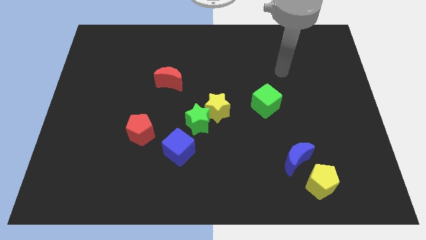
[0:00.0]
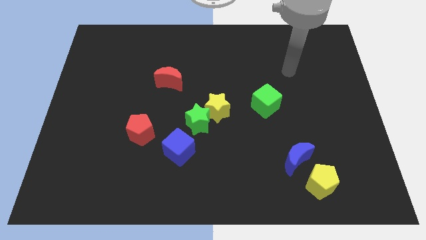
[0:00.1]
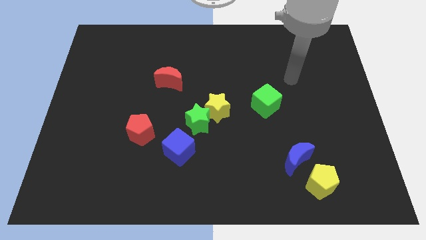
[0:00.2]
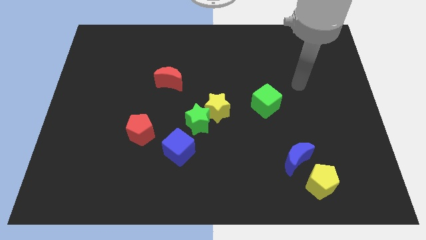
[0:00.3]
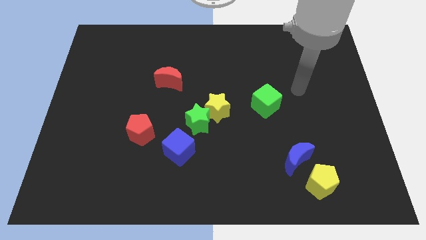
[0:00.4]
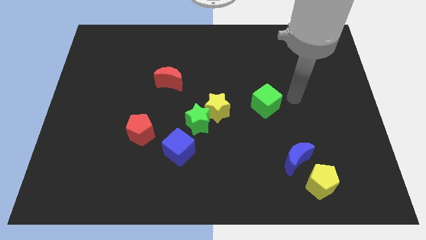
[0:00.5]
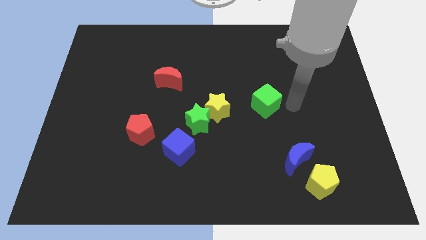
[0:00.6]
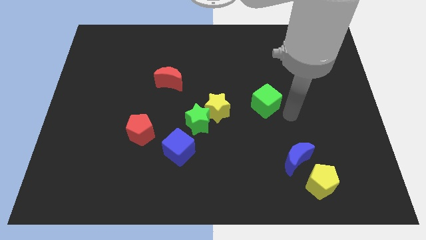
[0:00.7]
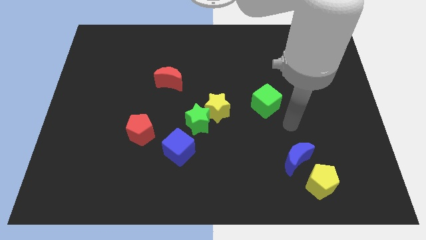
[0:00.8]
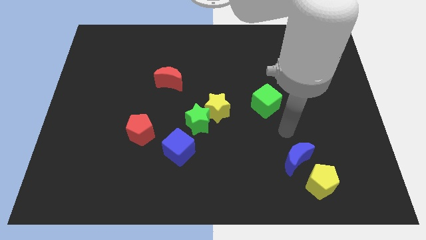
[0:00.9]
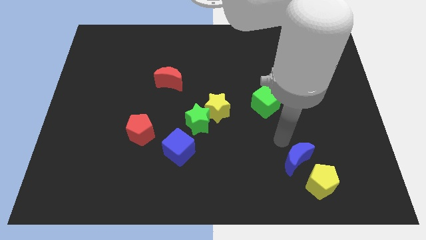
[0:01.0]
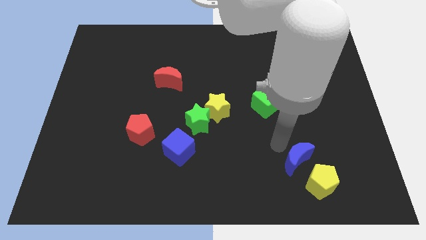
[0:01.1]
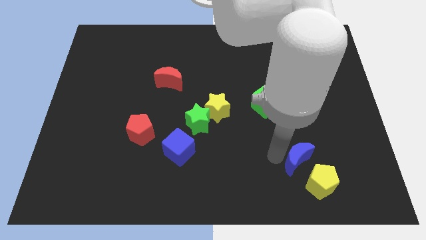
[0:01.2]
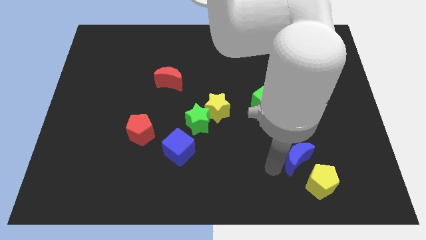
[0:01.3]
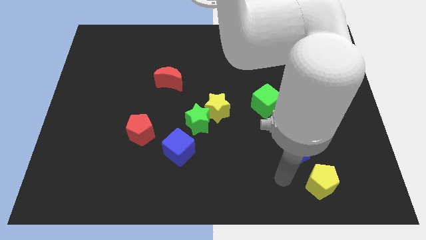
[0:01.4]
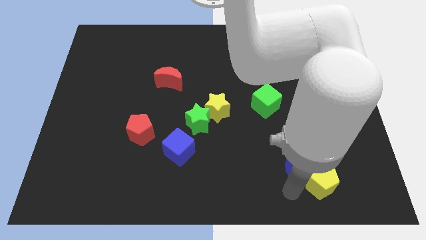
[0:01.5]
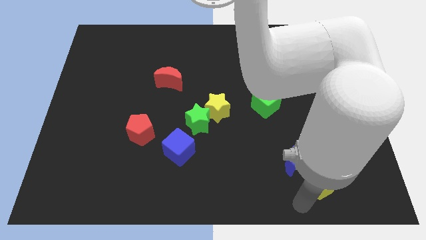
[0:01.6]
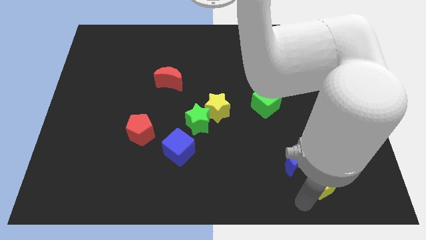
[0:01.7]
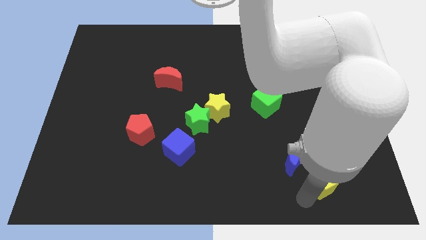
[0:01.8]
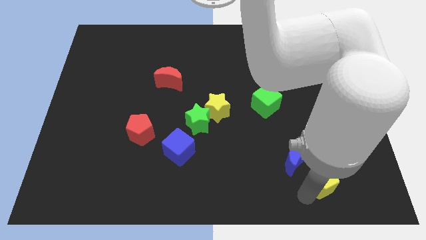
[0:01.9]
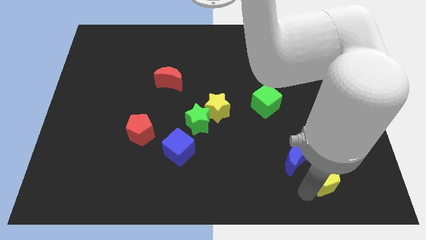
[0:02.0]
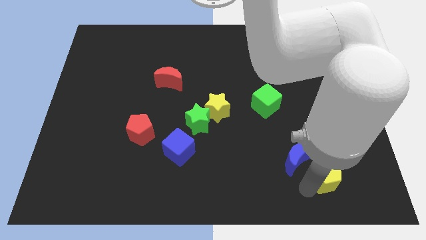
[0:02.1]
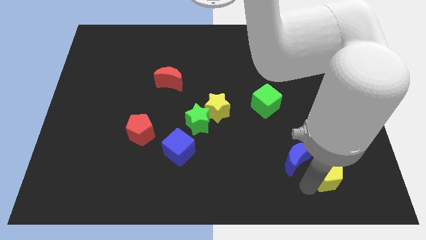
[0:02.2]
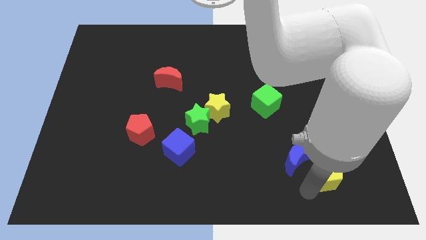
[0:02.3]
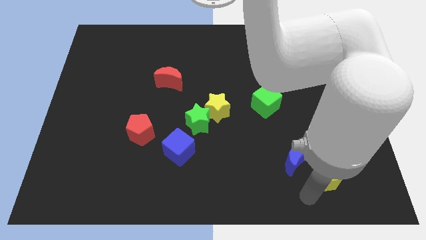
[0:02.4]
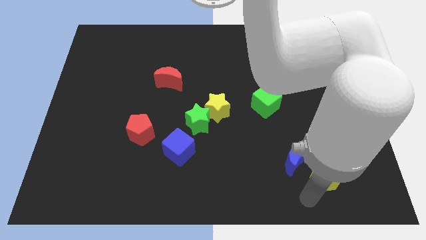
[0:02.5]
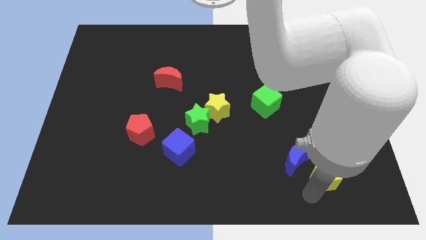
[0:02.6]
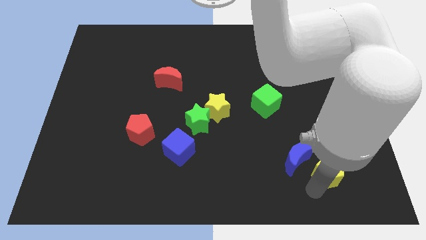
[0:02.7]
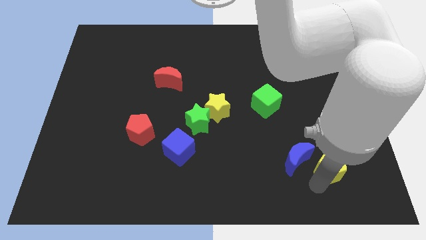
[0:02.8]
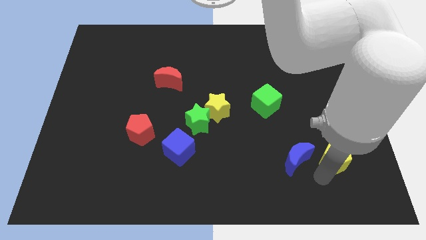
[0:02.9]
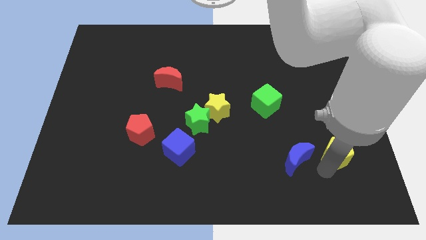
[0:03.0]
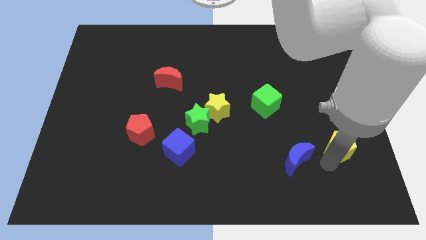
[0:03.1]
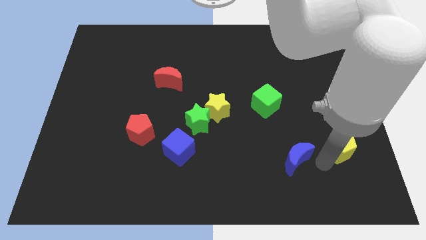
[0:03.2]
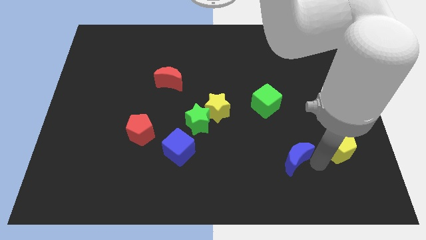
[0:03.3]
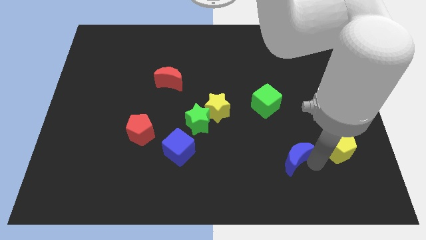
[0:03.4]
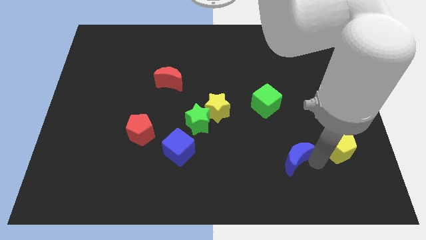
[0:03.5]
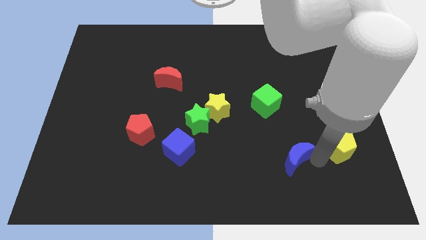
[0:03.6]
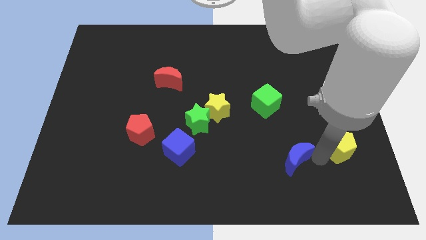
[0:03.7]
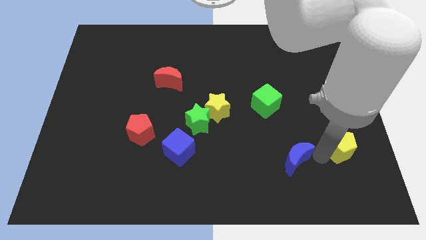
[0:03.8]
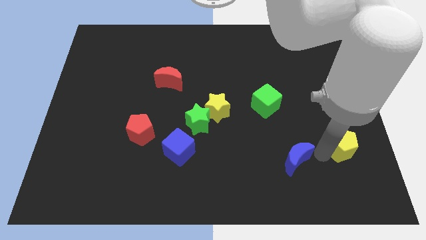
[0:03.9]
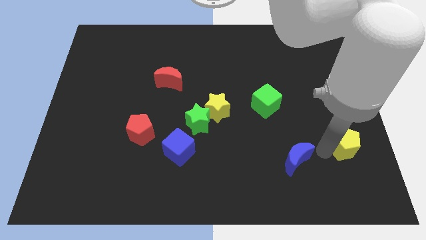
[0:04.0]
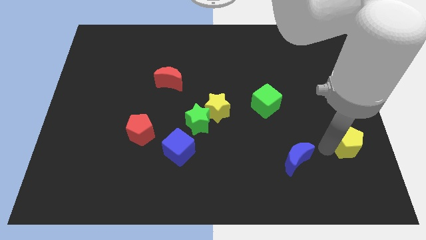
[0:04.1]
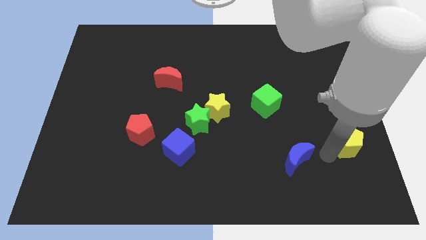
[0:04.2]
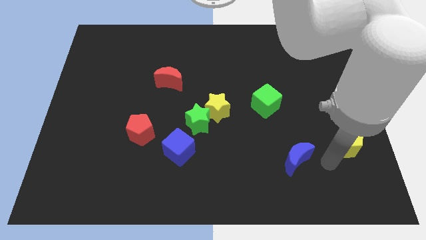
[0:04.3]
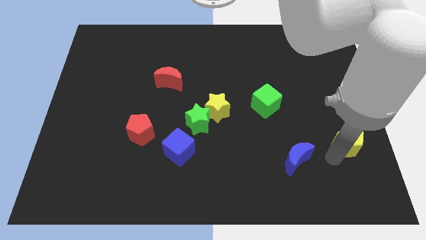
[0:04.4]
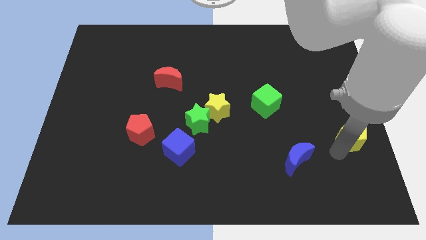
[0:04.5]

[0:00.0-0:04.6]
slide the yellow pentagon to the right side

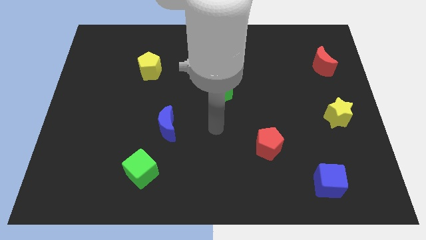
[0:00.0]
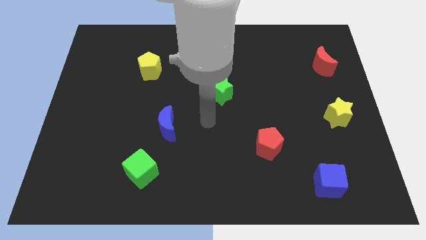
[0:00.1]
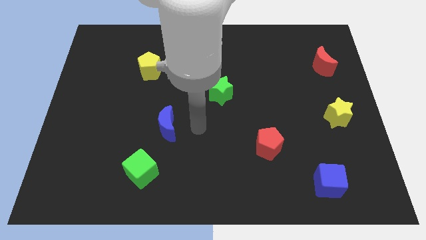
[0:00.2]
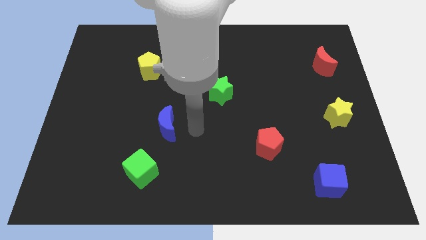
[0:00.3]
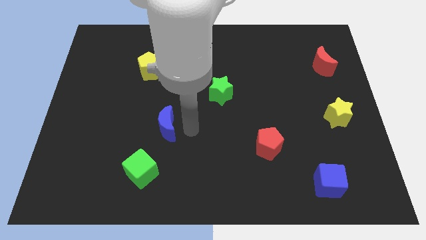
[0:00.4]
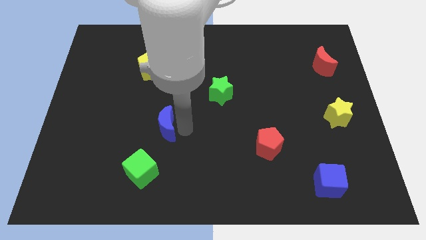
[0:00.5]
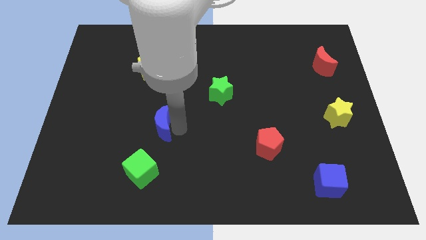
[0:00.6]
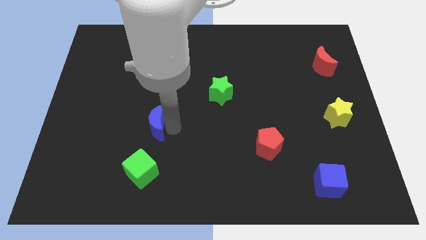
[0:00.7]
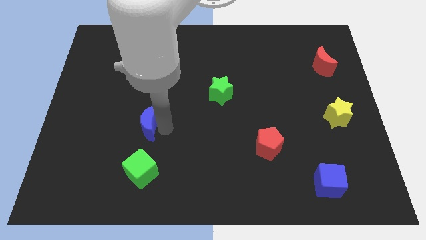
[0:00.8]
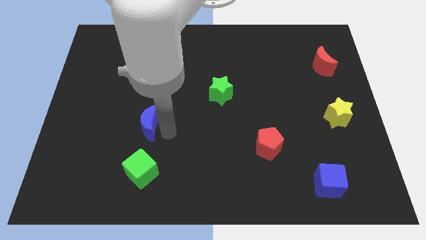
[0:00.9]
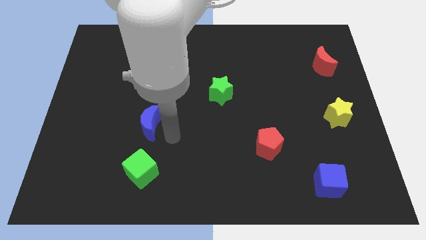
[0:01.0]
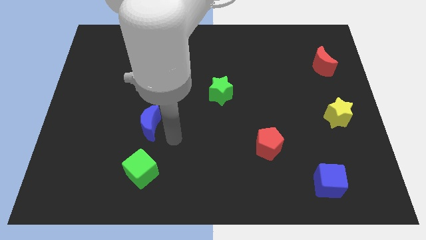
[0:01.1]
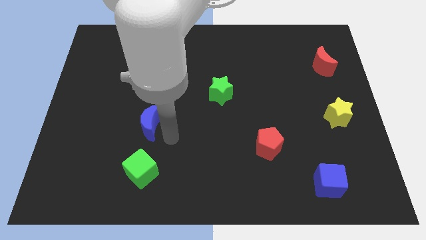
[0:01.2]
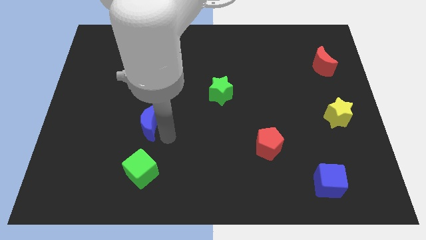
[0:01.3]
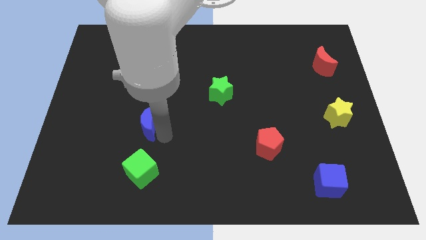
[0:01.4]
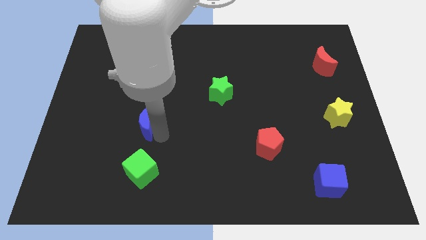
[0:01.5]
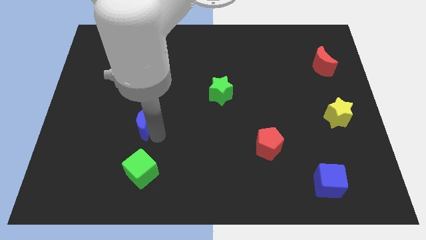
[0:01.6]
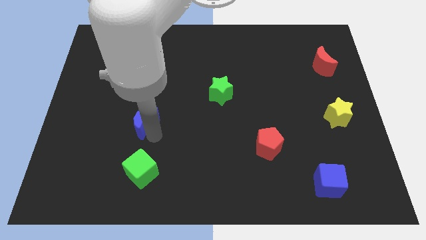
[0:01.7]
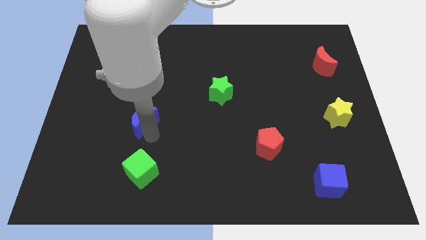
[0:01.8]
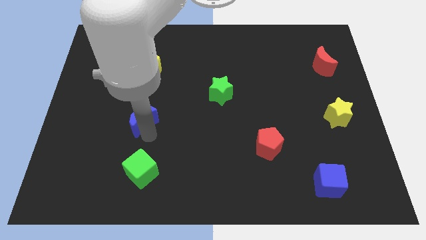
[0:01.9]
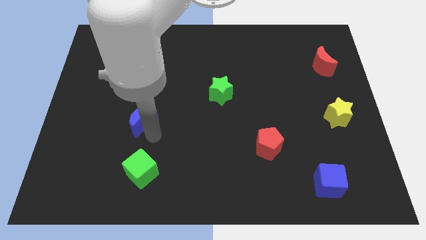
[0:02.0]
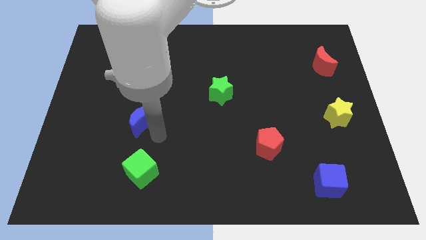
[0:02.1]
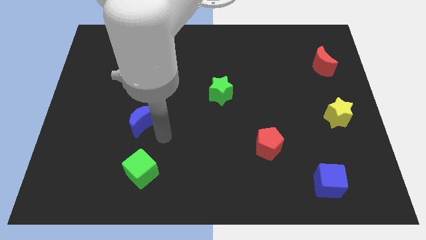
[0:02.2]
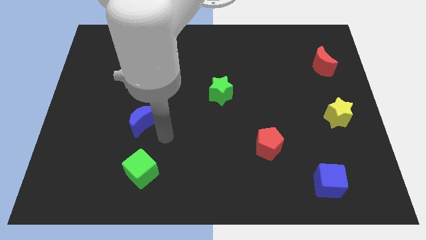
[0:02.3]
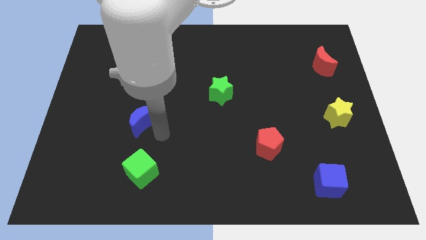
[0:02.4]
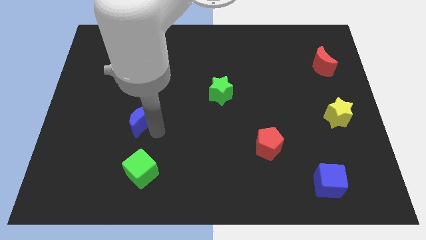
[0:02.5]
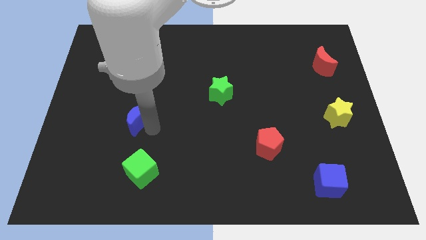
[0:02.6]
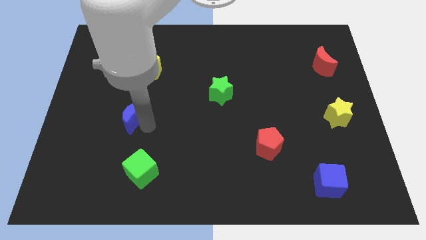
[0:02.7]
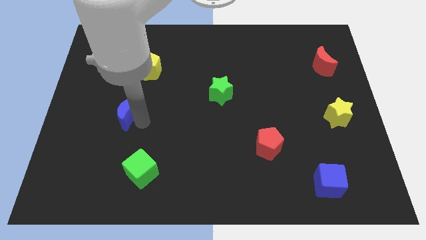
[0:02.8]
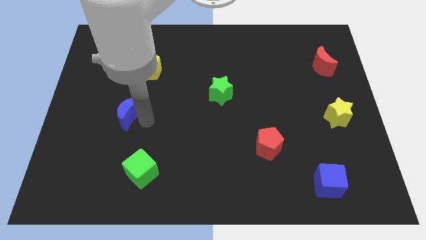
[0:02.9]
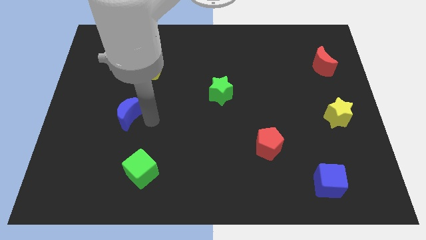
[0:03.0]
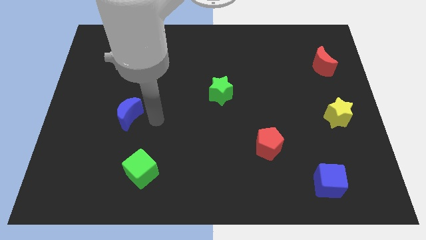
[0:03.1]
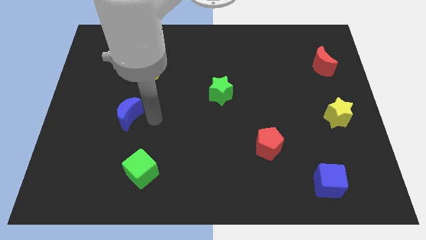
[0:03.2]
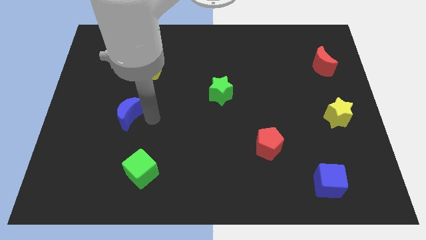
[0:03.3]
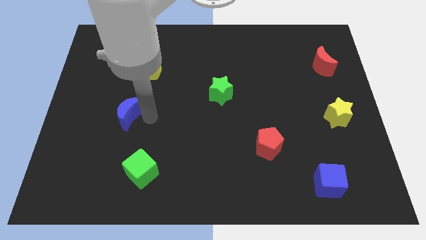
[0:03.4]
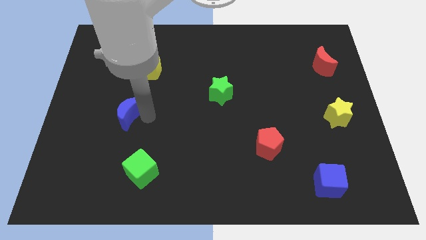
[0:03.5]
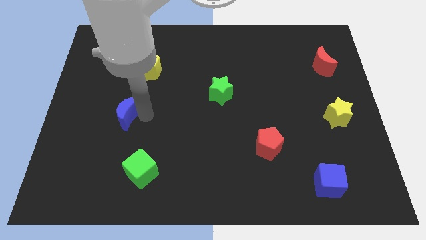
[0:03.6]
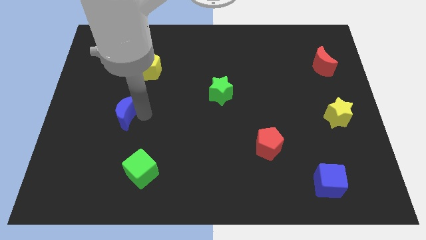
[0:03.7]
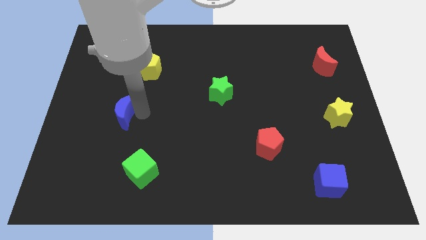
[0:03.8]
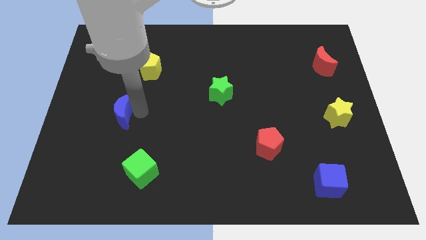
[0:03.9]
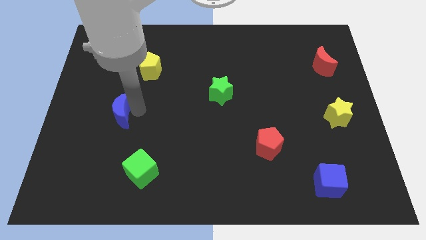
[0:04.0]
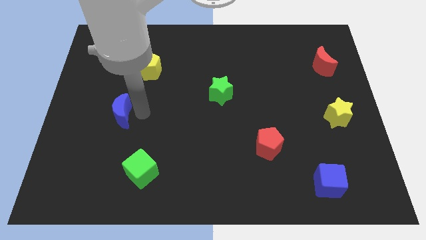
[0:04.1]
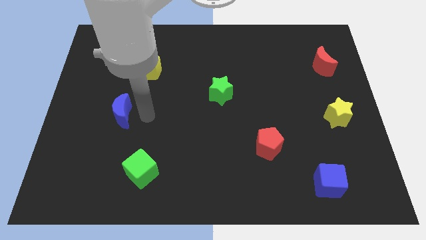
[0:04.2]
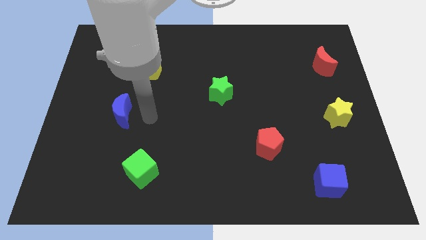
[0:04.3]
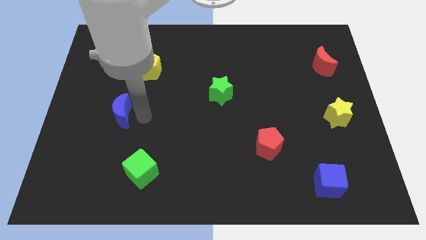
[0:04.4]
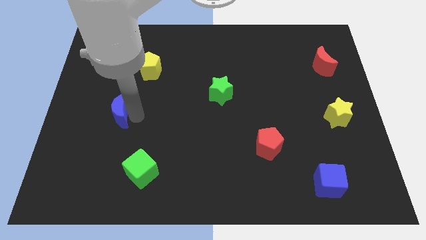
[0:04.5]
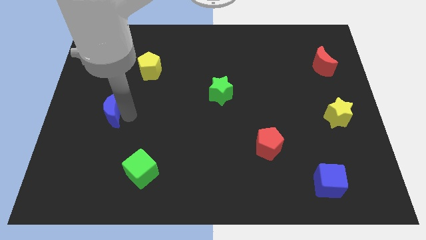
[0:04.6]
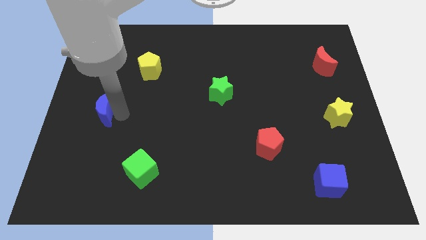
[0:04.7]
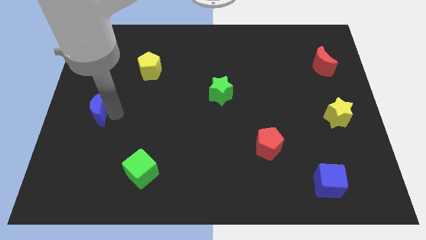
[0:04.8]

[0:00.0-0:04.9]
move the blue moon to the left side of the board
